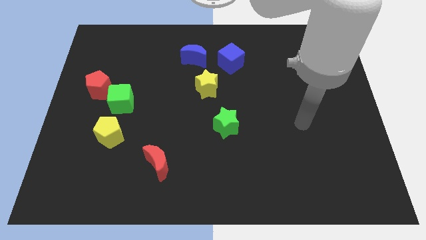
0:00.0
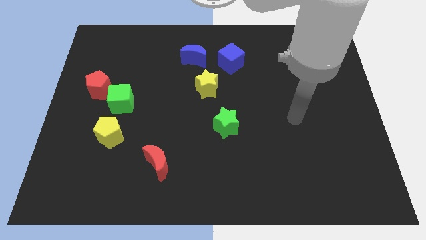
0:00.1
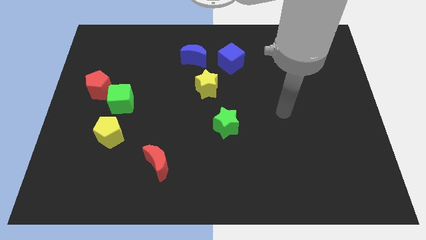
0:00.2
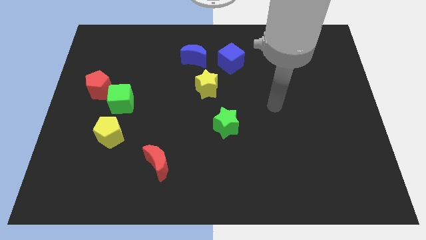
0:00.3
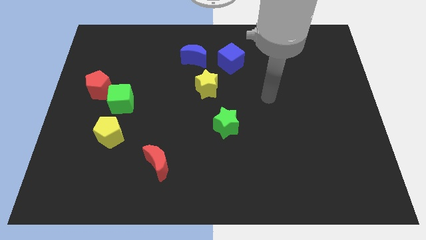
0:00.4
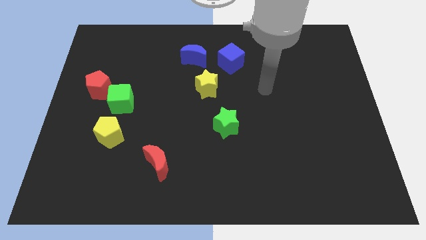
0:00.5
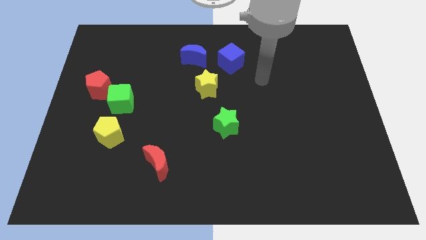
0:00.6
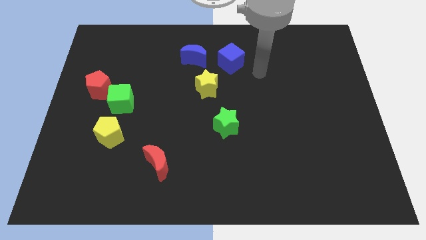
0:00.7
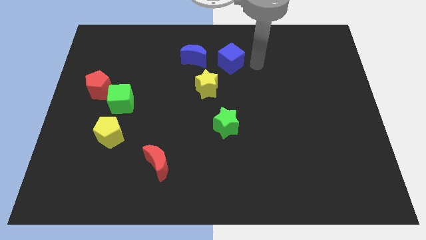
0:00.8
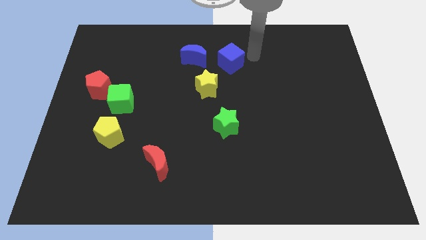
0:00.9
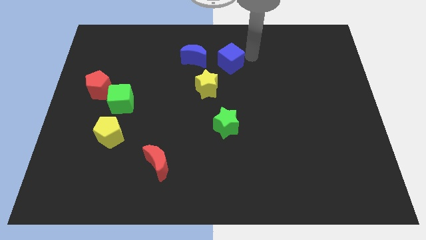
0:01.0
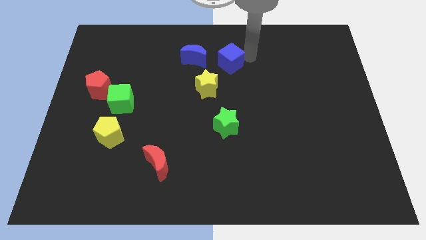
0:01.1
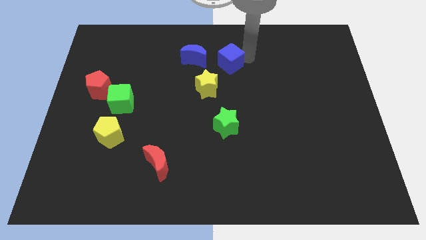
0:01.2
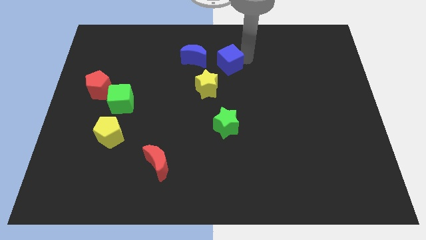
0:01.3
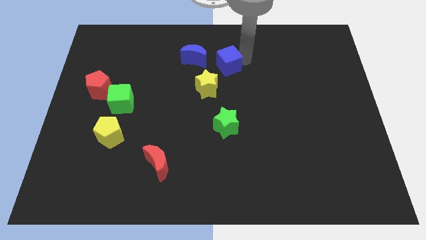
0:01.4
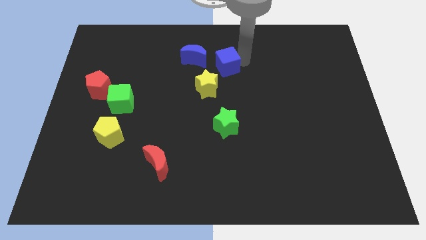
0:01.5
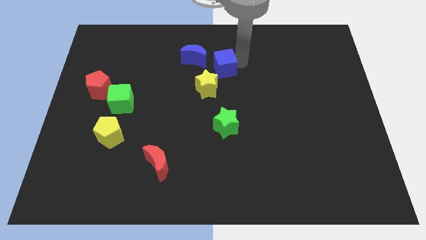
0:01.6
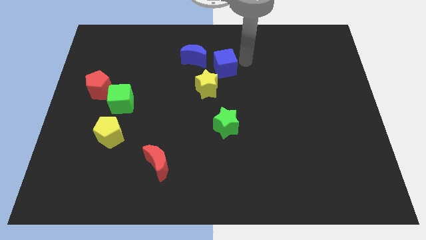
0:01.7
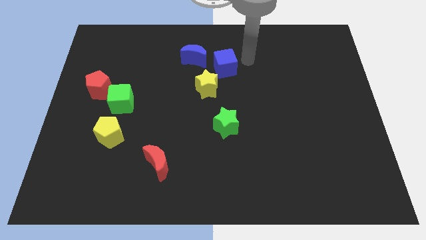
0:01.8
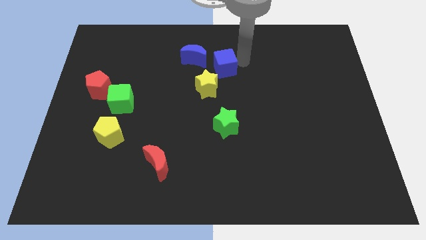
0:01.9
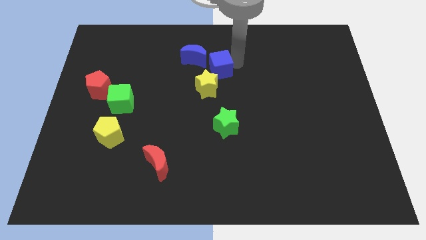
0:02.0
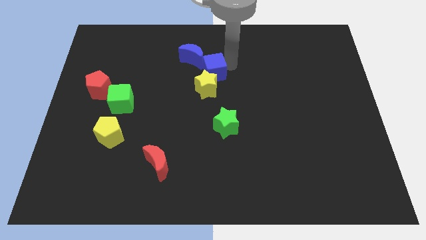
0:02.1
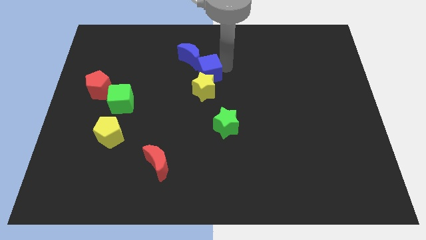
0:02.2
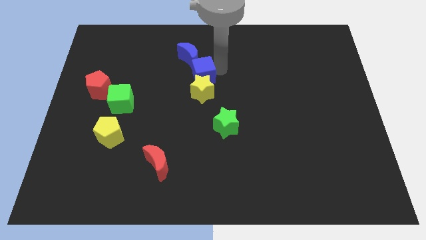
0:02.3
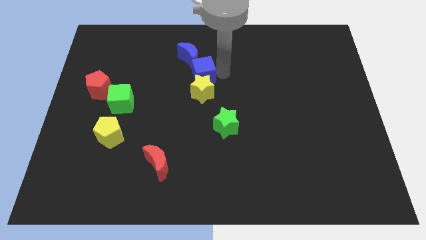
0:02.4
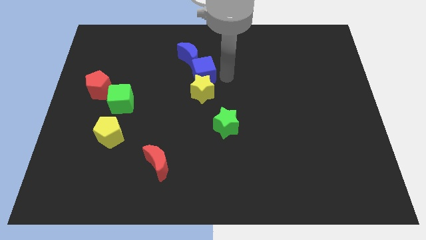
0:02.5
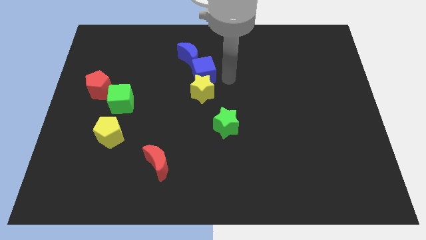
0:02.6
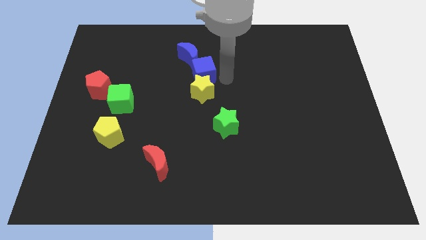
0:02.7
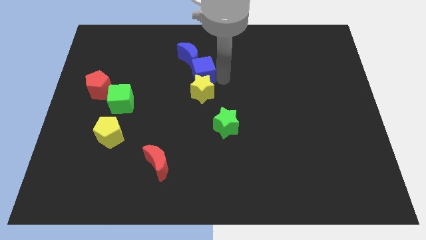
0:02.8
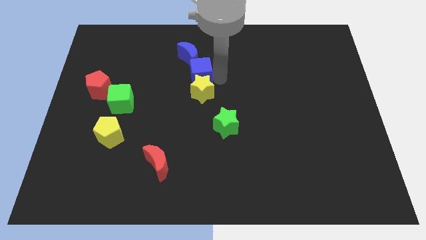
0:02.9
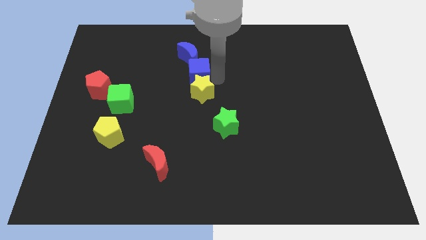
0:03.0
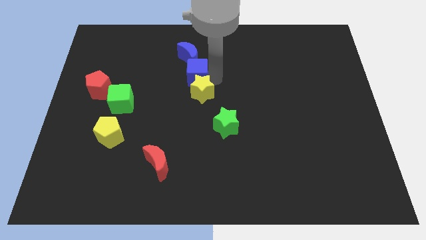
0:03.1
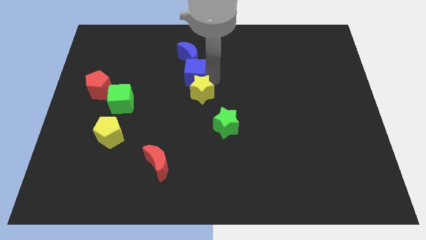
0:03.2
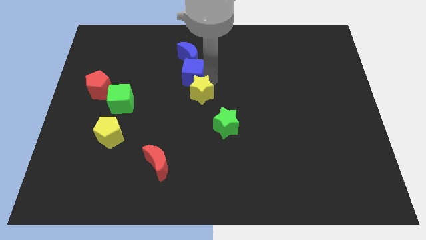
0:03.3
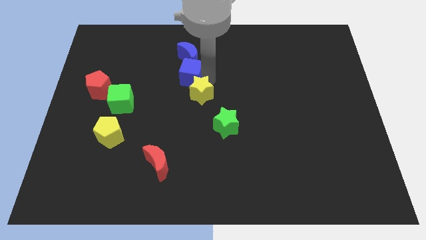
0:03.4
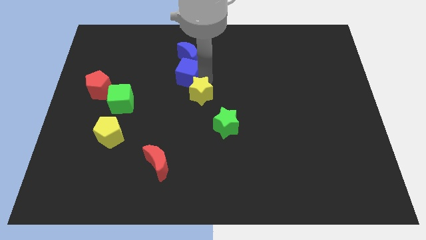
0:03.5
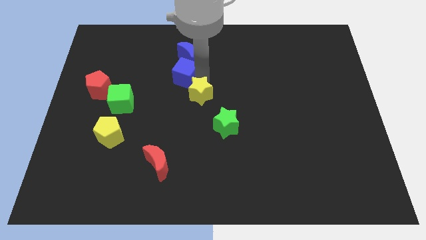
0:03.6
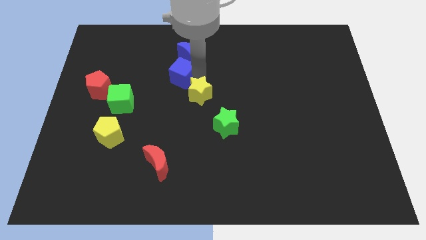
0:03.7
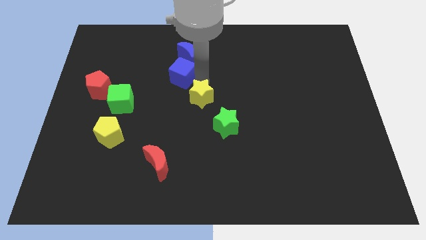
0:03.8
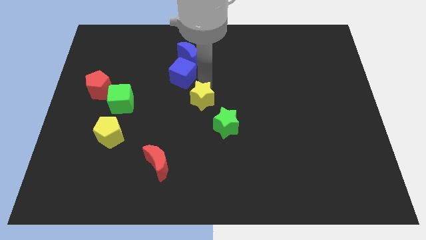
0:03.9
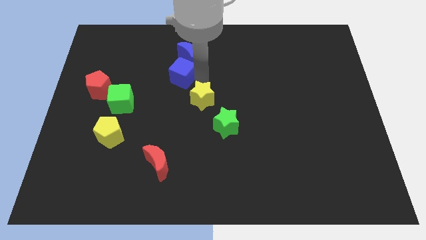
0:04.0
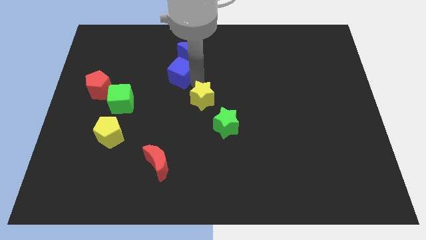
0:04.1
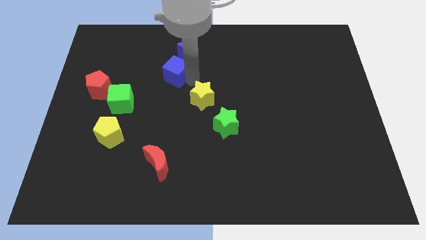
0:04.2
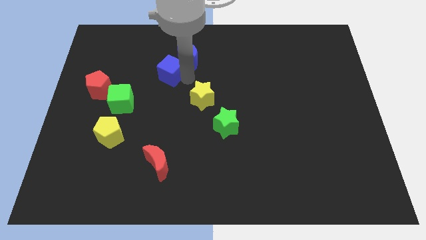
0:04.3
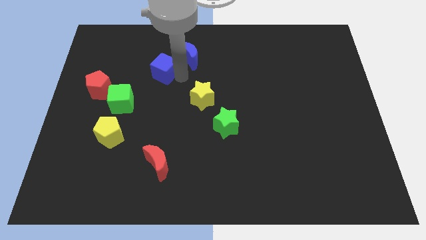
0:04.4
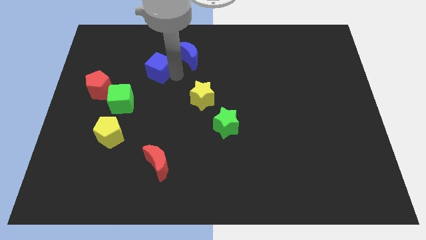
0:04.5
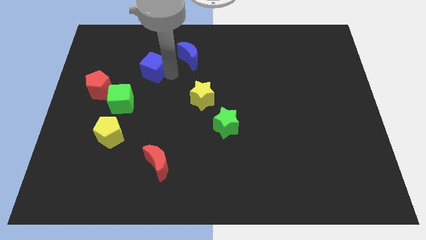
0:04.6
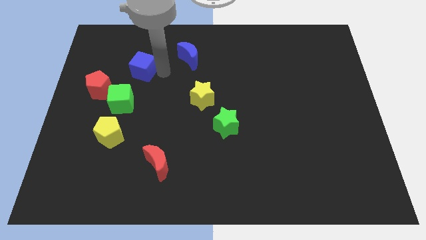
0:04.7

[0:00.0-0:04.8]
push the blue cube to the left

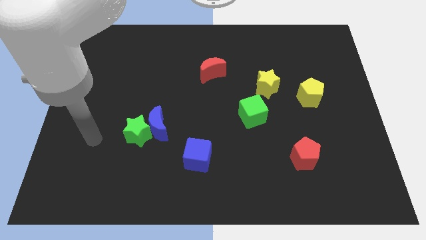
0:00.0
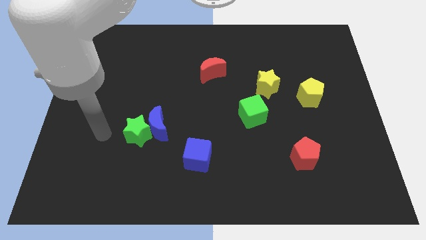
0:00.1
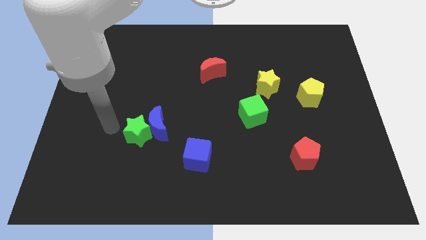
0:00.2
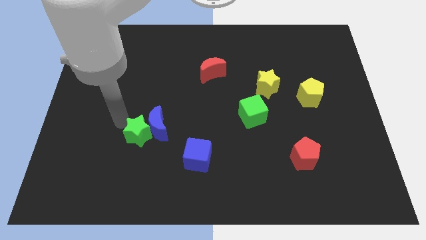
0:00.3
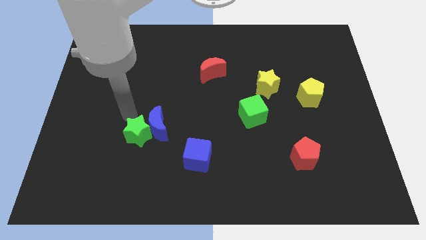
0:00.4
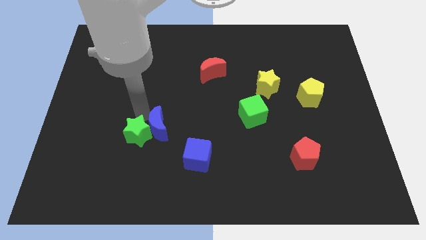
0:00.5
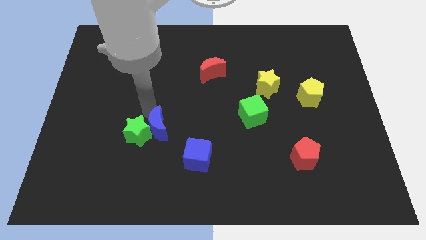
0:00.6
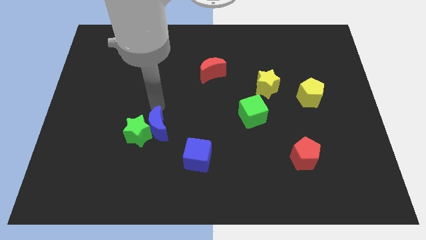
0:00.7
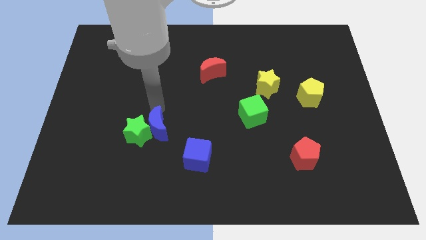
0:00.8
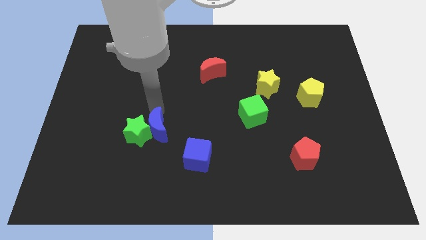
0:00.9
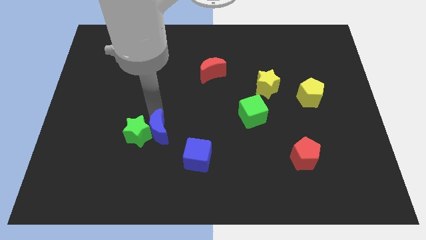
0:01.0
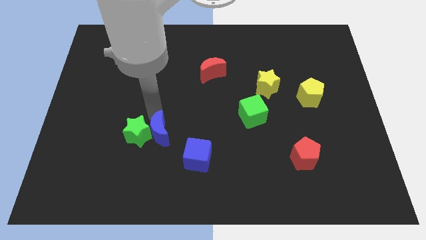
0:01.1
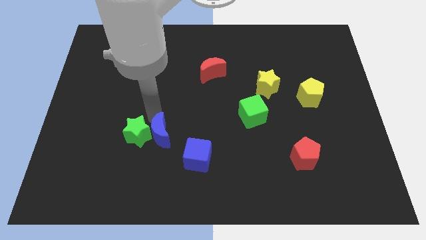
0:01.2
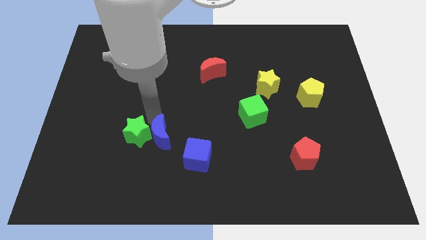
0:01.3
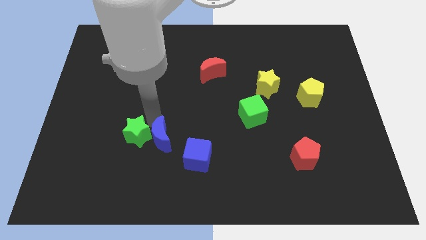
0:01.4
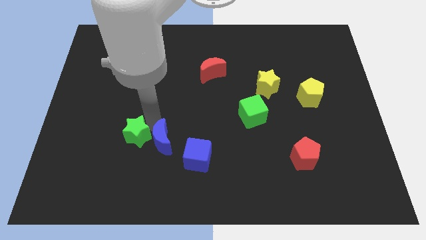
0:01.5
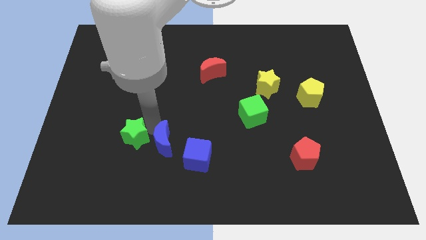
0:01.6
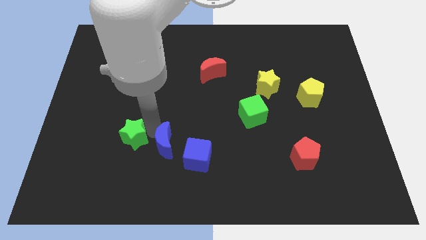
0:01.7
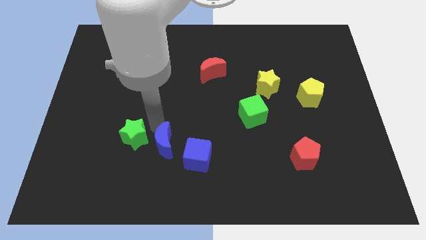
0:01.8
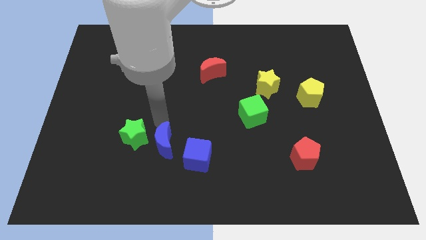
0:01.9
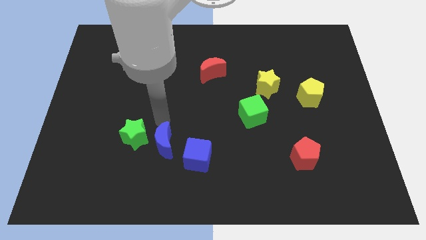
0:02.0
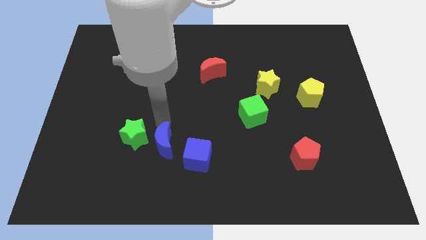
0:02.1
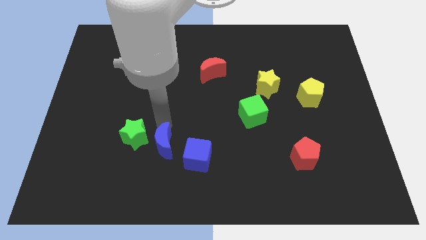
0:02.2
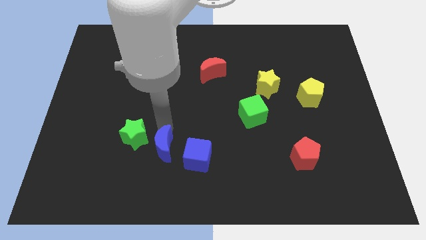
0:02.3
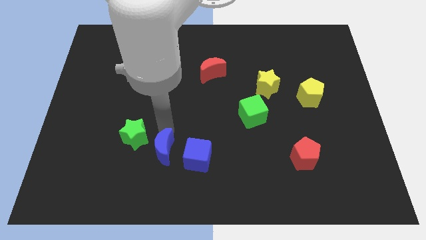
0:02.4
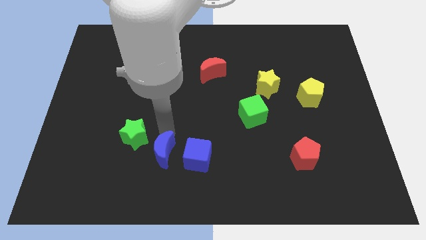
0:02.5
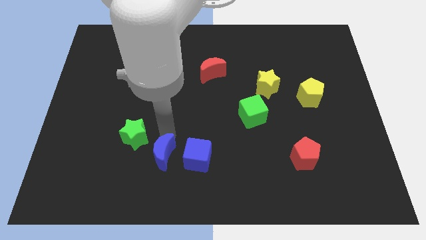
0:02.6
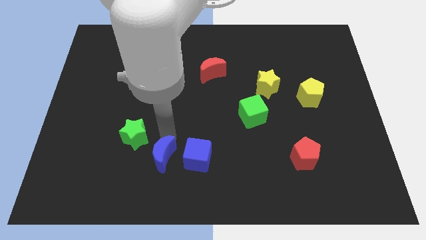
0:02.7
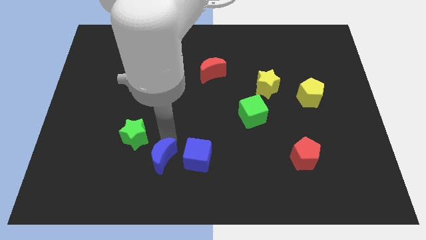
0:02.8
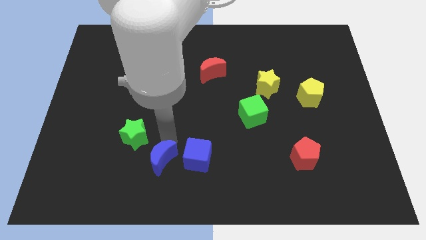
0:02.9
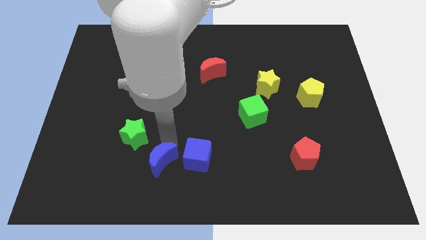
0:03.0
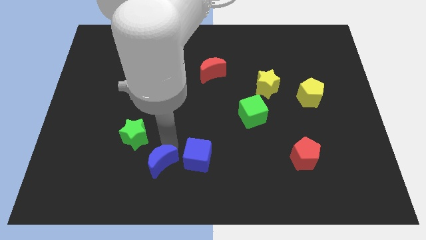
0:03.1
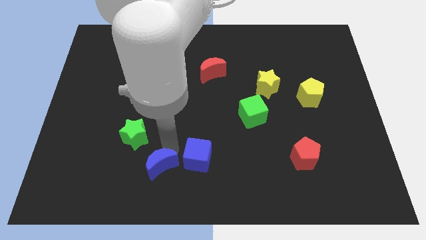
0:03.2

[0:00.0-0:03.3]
move the blue moon diagonally down and to the right a little bit

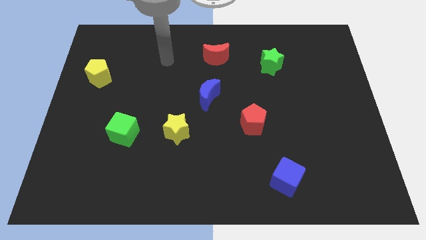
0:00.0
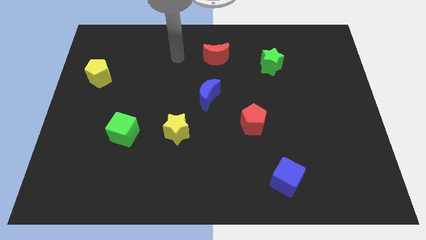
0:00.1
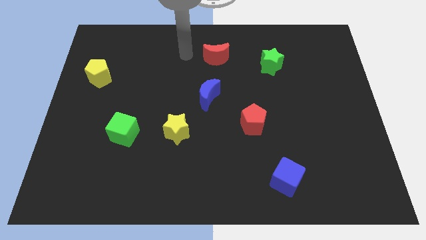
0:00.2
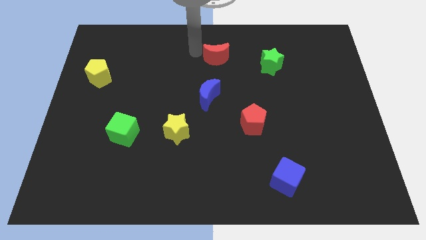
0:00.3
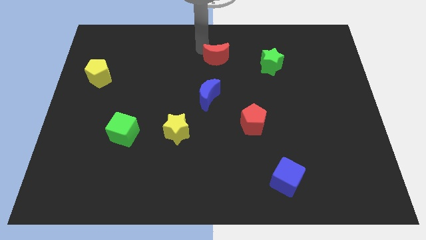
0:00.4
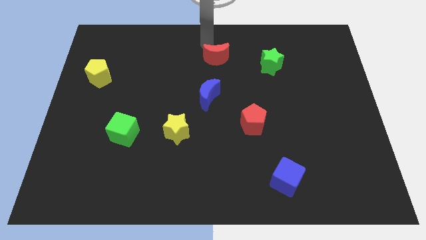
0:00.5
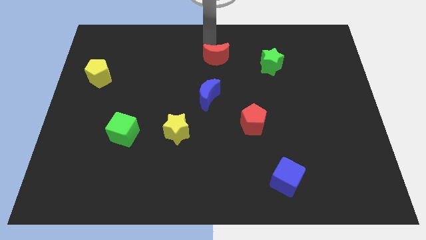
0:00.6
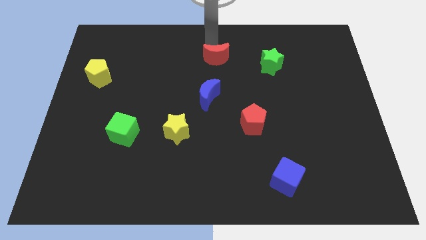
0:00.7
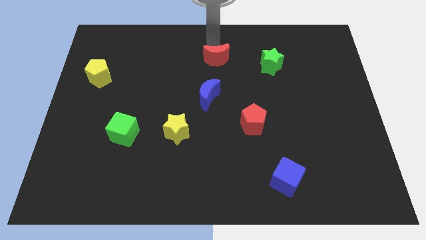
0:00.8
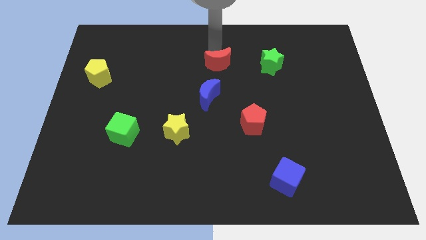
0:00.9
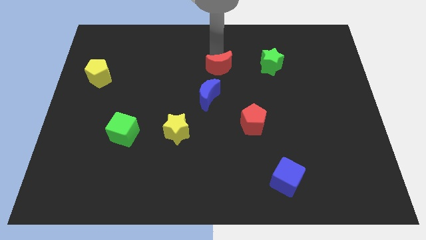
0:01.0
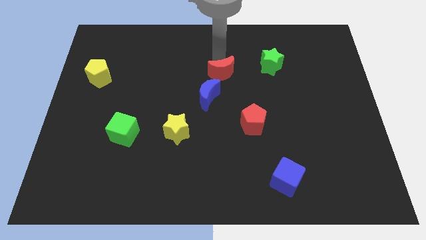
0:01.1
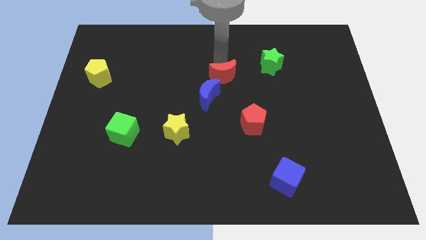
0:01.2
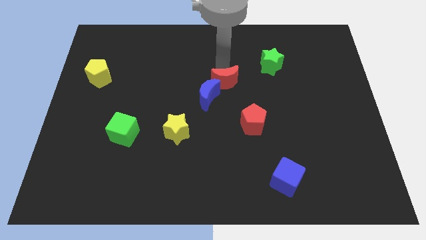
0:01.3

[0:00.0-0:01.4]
push the red moon a bit down
